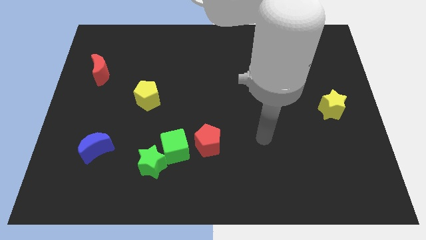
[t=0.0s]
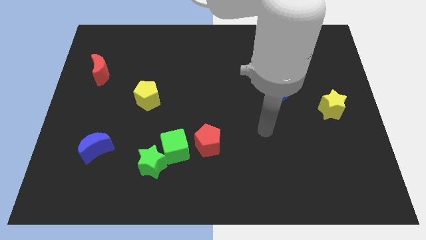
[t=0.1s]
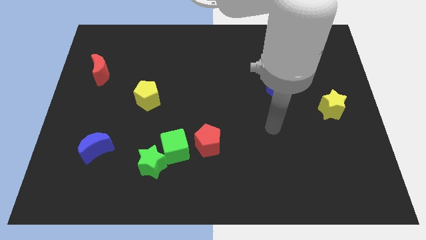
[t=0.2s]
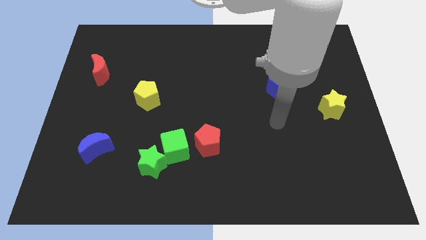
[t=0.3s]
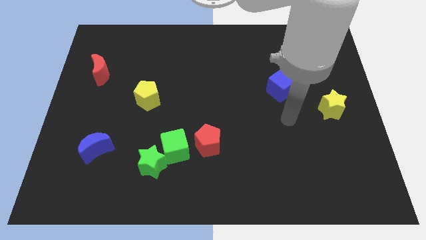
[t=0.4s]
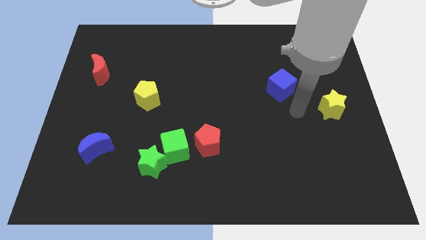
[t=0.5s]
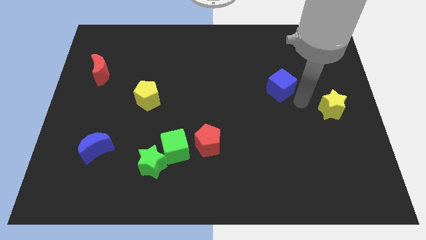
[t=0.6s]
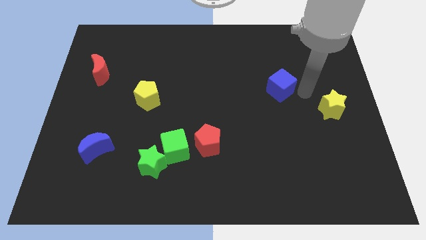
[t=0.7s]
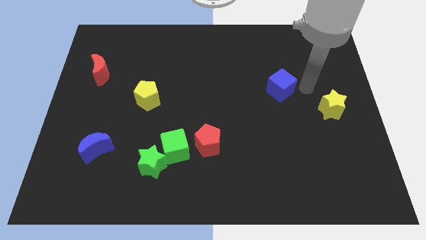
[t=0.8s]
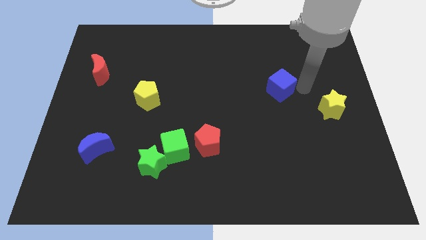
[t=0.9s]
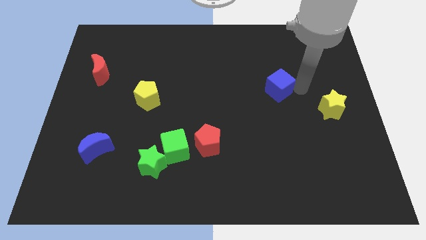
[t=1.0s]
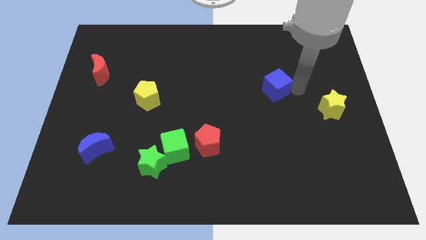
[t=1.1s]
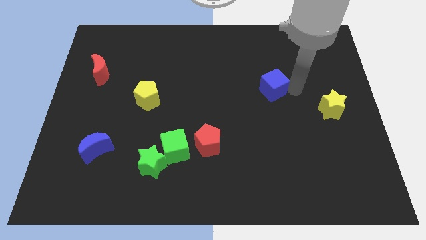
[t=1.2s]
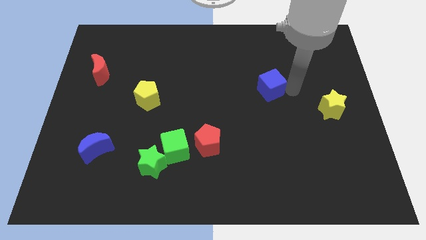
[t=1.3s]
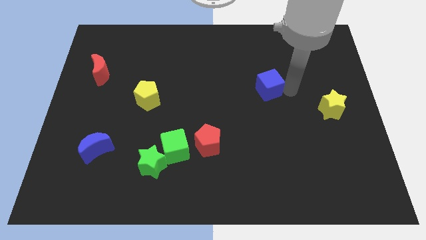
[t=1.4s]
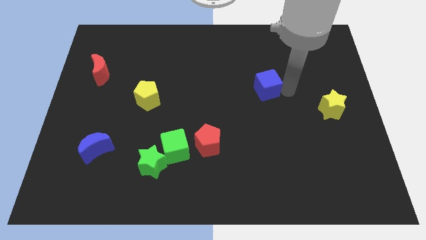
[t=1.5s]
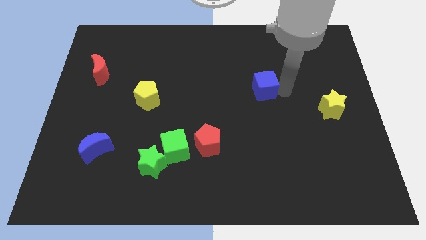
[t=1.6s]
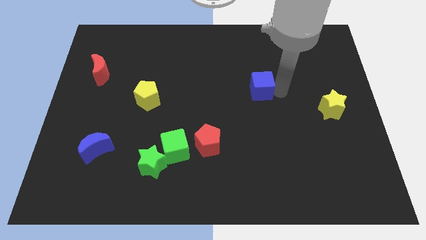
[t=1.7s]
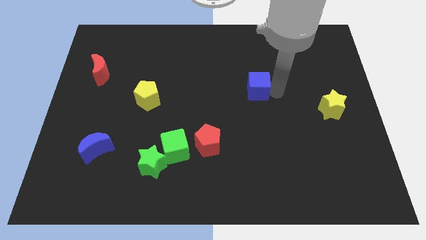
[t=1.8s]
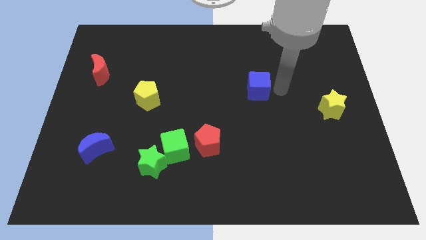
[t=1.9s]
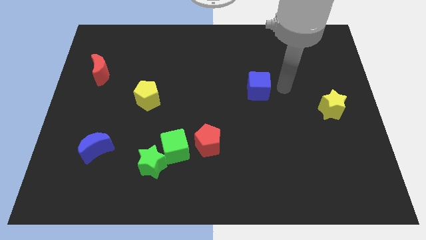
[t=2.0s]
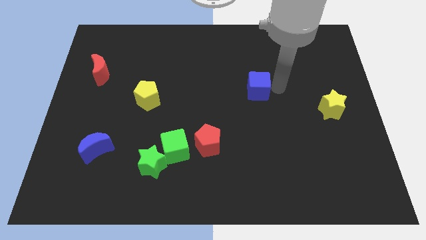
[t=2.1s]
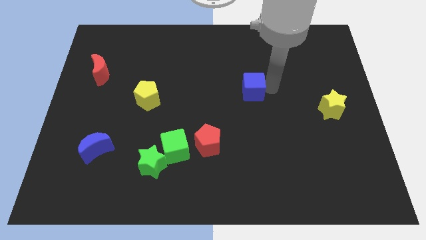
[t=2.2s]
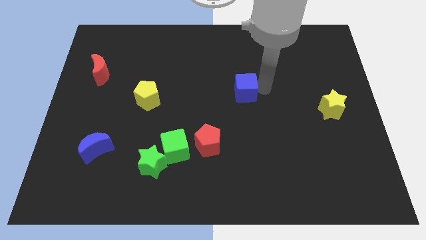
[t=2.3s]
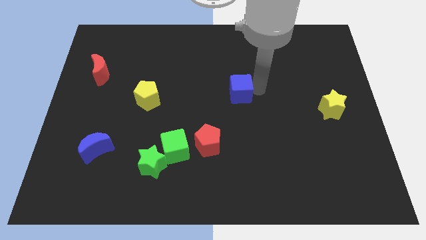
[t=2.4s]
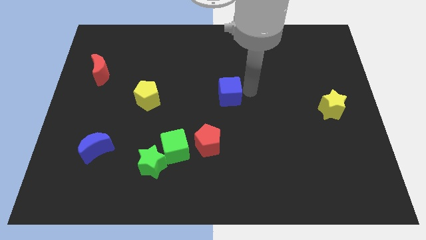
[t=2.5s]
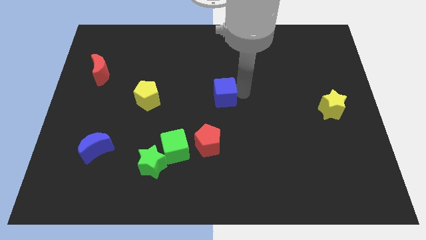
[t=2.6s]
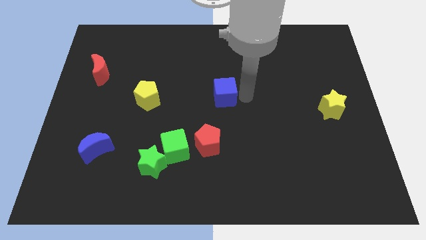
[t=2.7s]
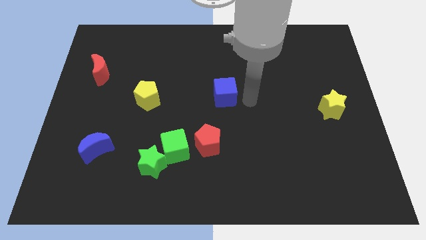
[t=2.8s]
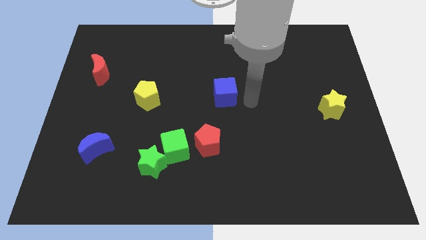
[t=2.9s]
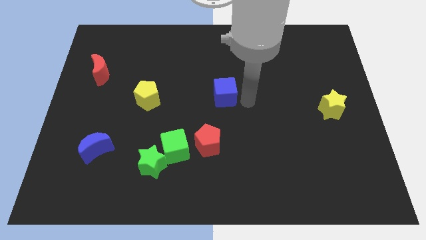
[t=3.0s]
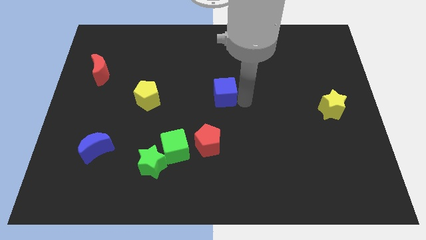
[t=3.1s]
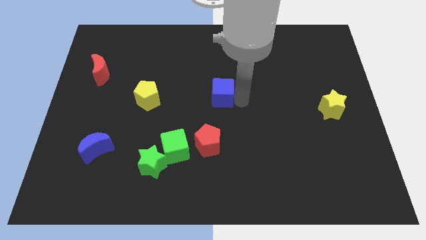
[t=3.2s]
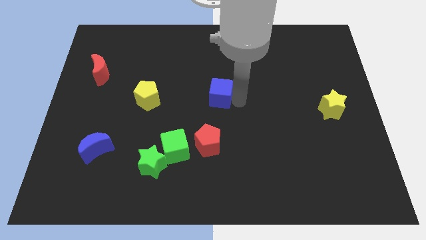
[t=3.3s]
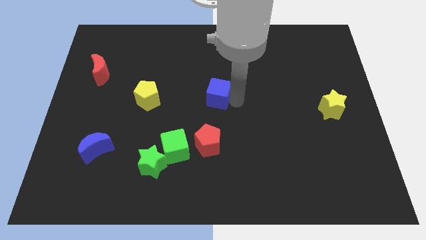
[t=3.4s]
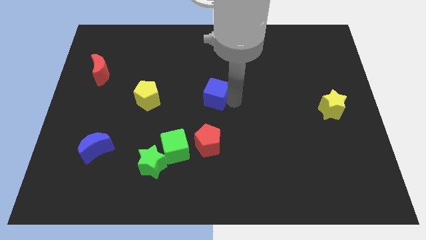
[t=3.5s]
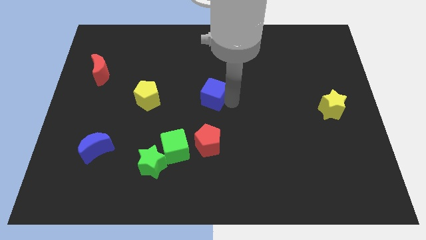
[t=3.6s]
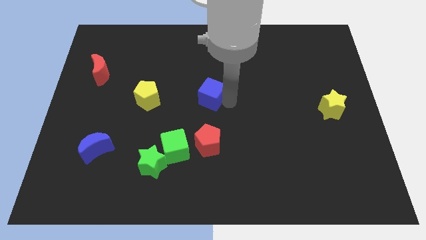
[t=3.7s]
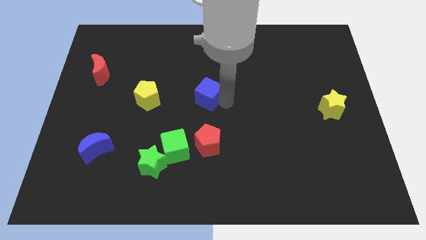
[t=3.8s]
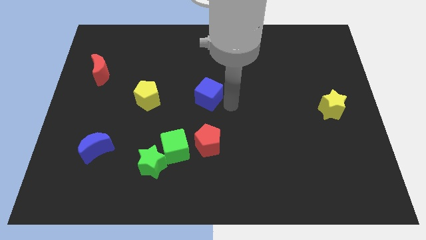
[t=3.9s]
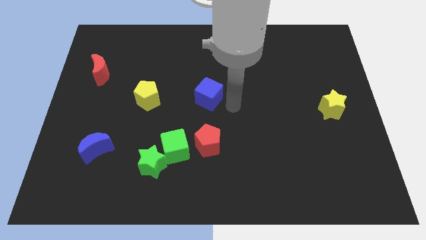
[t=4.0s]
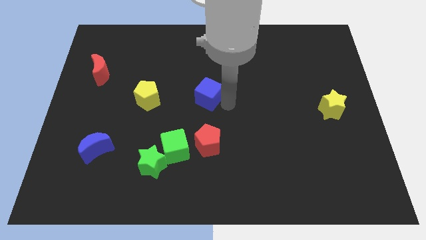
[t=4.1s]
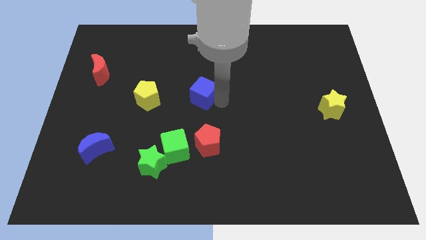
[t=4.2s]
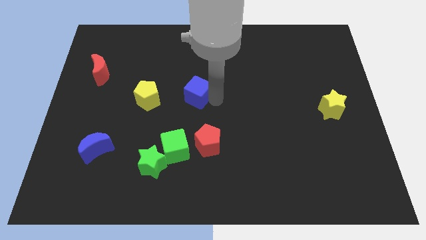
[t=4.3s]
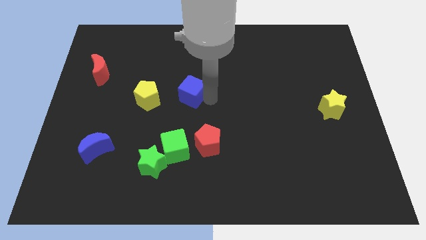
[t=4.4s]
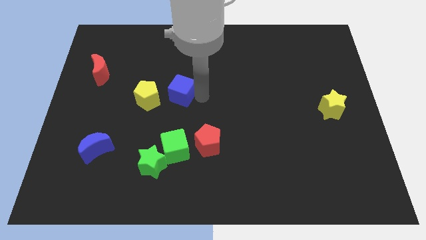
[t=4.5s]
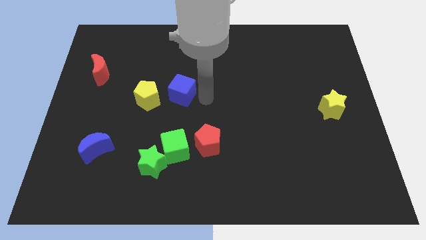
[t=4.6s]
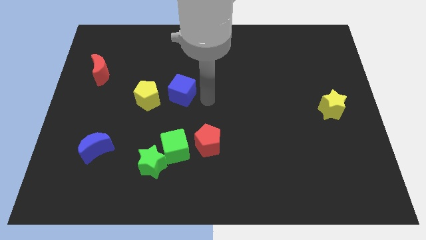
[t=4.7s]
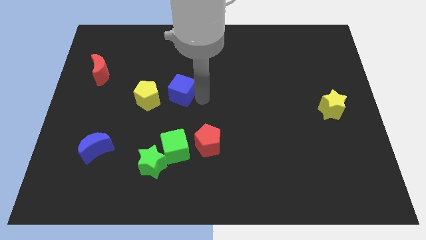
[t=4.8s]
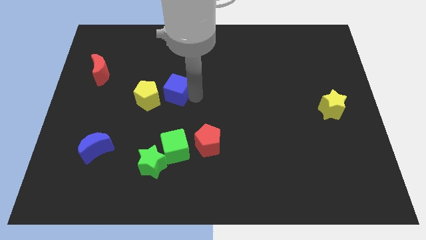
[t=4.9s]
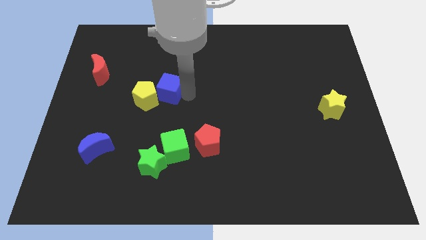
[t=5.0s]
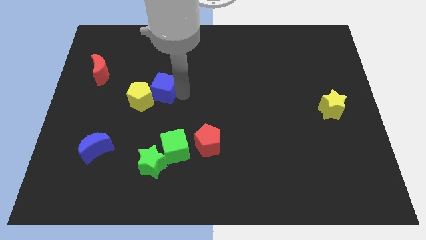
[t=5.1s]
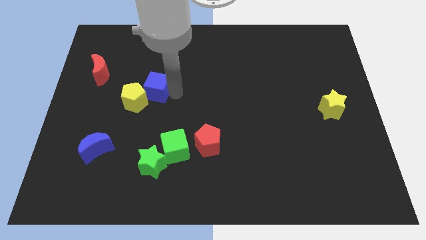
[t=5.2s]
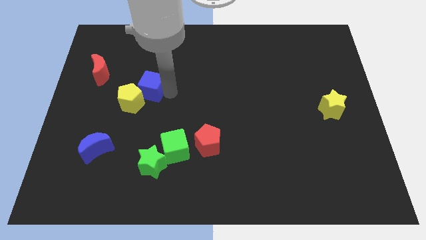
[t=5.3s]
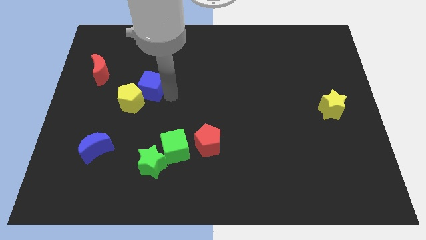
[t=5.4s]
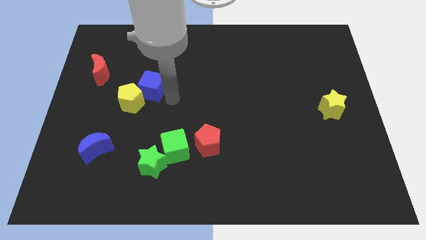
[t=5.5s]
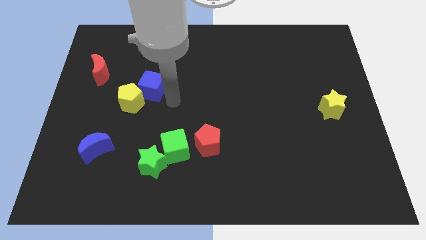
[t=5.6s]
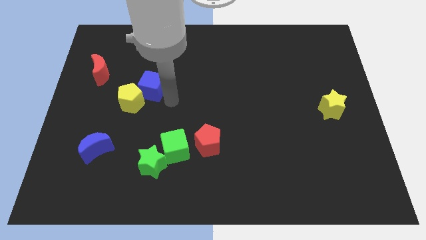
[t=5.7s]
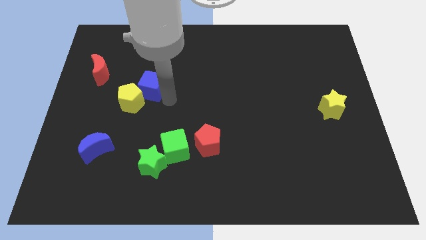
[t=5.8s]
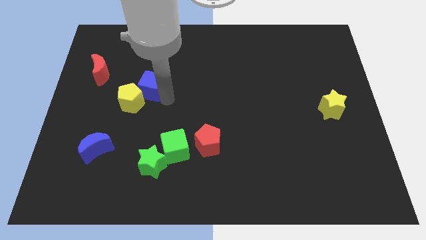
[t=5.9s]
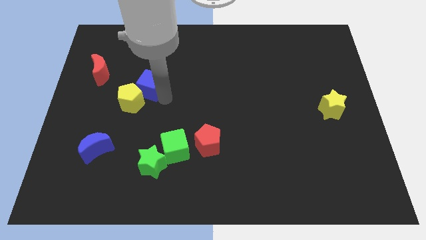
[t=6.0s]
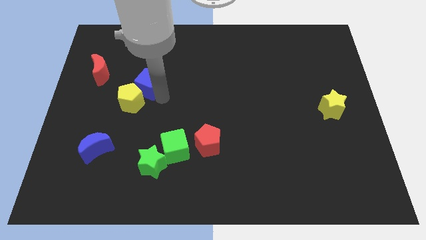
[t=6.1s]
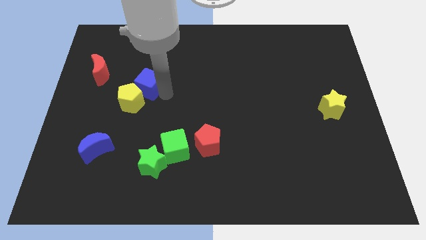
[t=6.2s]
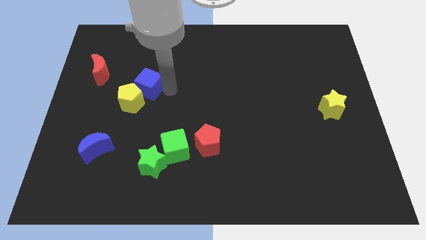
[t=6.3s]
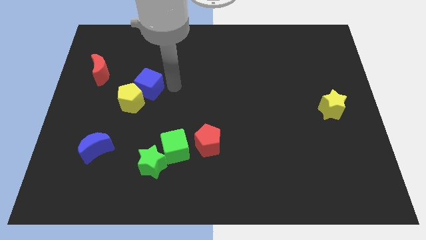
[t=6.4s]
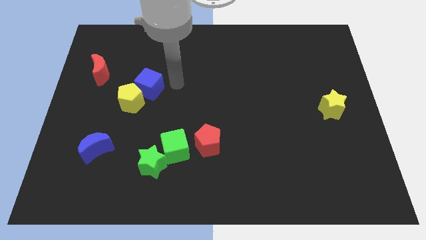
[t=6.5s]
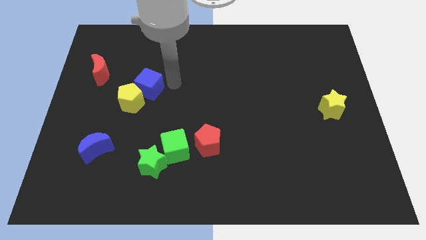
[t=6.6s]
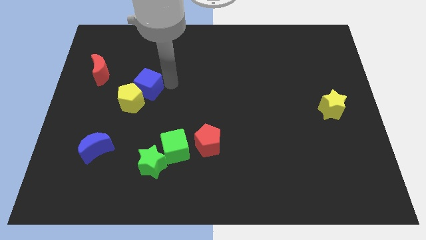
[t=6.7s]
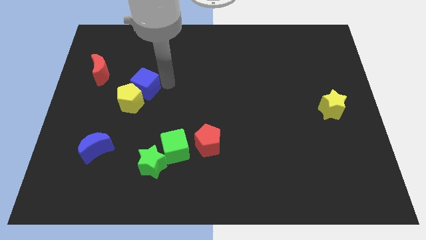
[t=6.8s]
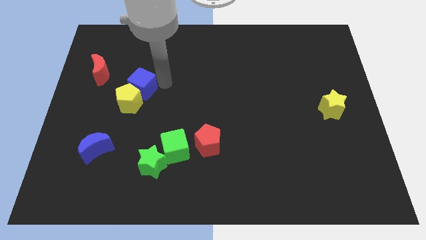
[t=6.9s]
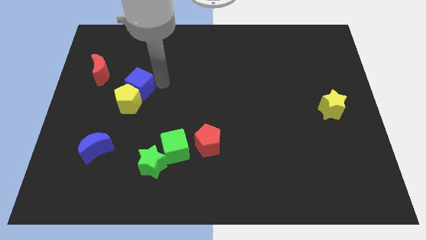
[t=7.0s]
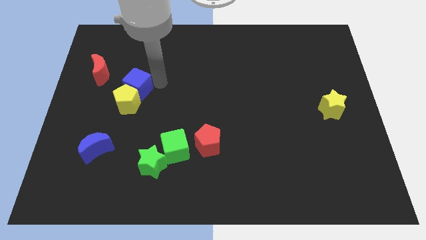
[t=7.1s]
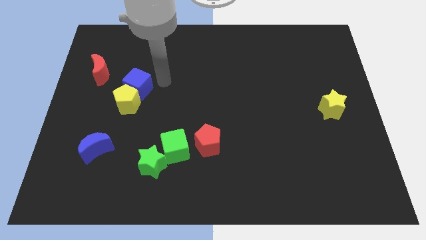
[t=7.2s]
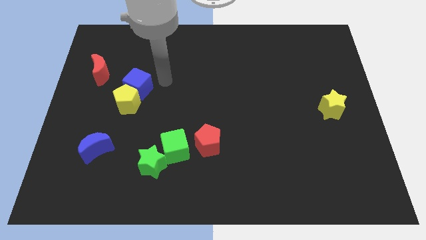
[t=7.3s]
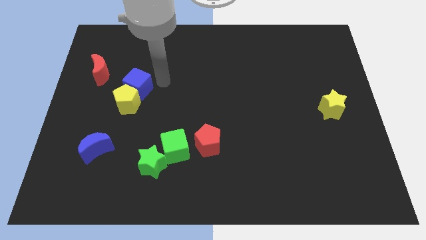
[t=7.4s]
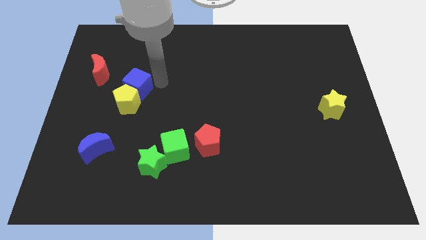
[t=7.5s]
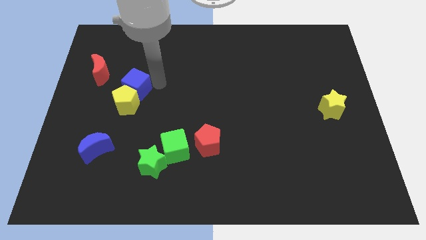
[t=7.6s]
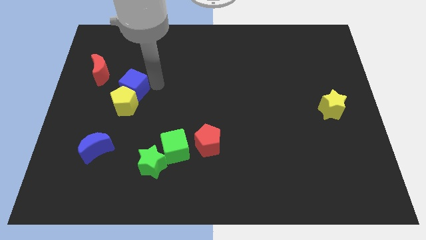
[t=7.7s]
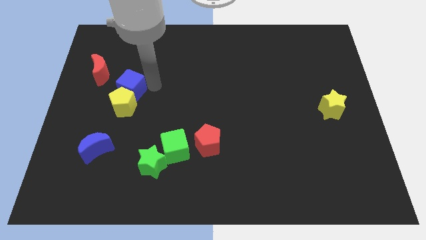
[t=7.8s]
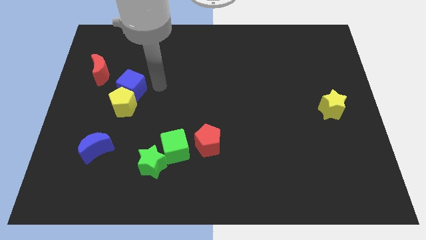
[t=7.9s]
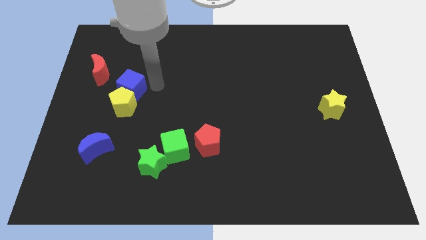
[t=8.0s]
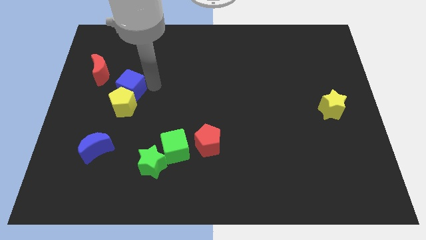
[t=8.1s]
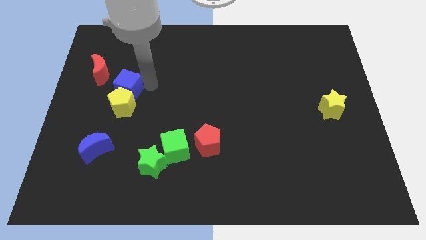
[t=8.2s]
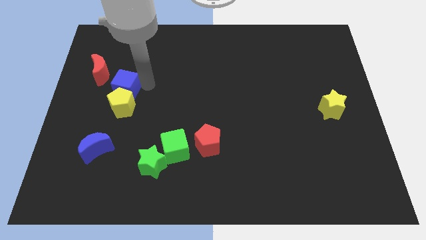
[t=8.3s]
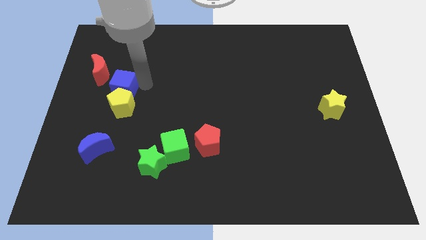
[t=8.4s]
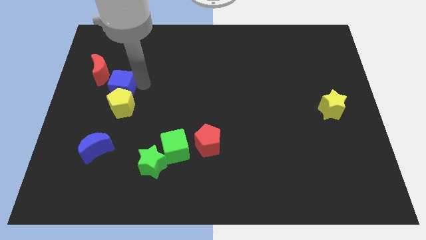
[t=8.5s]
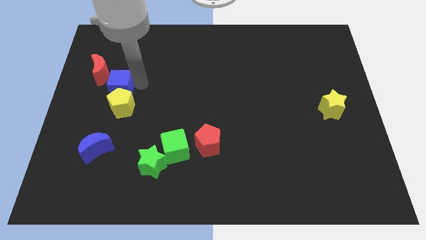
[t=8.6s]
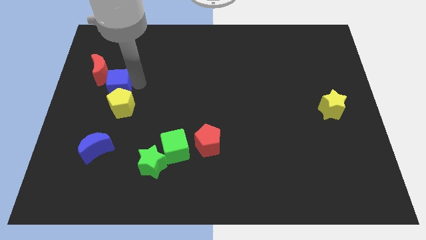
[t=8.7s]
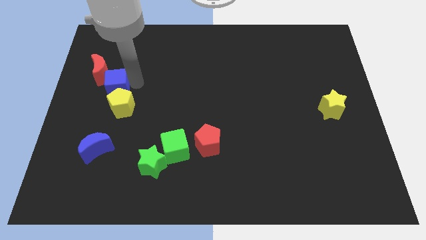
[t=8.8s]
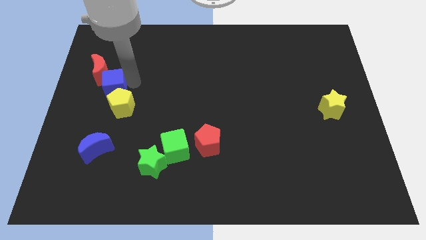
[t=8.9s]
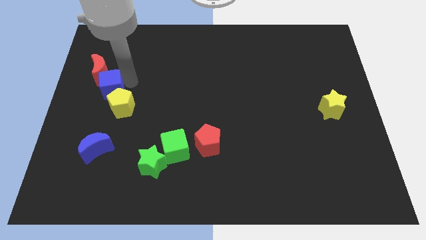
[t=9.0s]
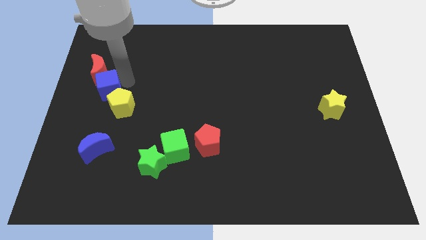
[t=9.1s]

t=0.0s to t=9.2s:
move the blue cube to the left side of the board
